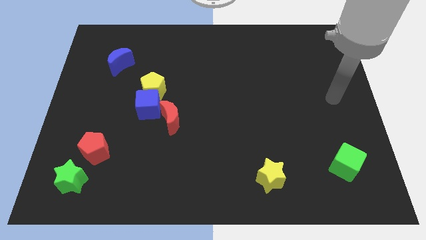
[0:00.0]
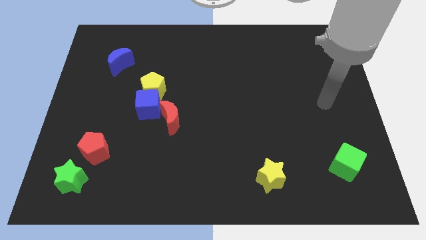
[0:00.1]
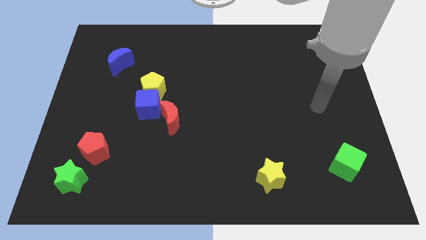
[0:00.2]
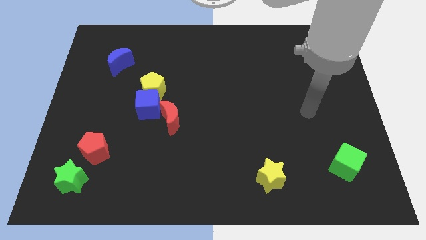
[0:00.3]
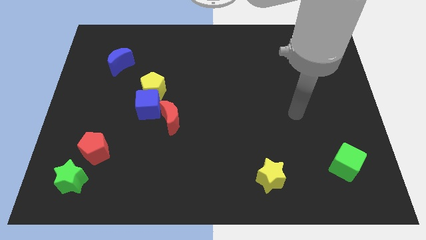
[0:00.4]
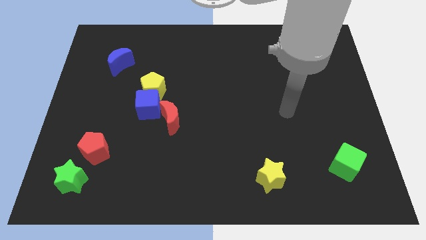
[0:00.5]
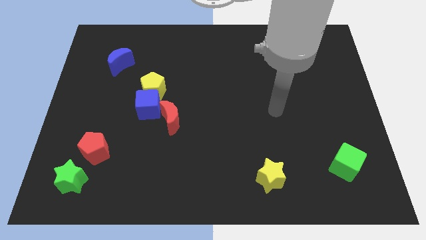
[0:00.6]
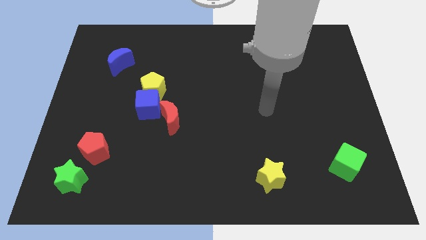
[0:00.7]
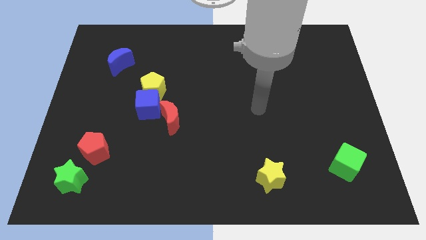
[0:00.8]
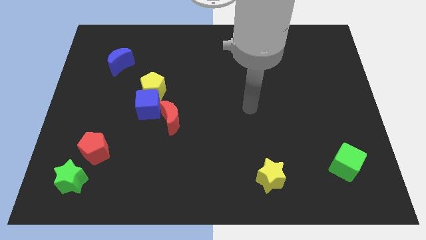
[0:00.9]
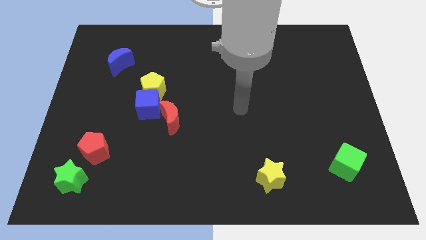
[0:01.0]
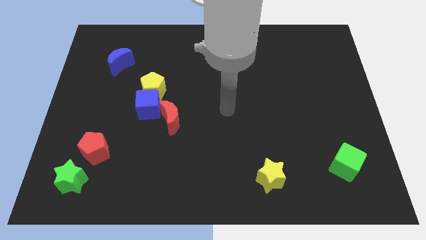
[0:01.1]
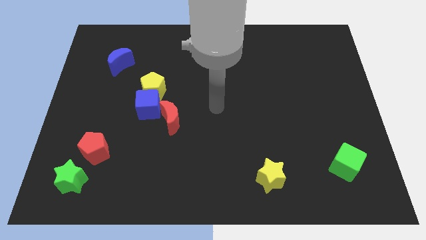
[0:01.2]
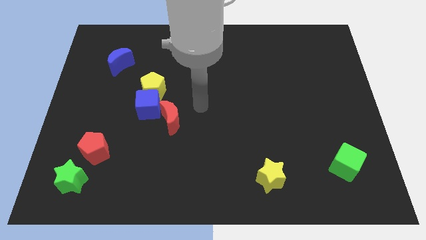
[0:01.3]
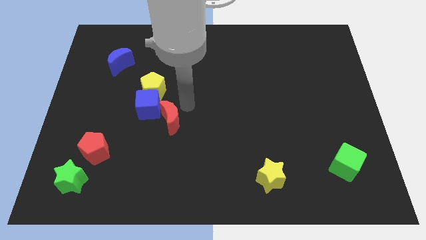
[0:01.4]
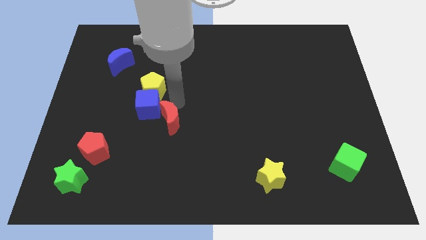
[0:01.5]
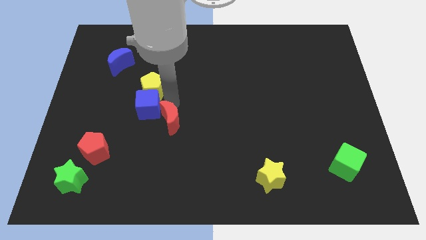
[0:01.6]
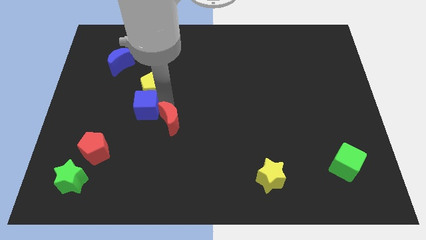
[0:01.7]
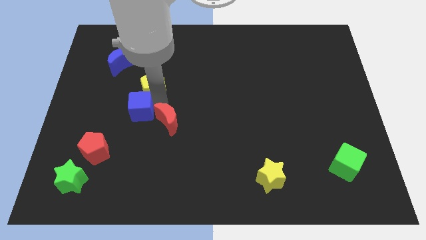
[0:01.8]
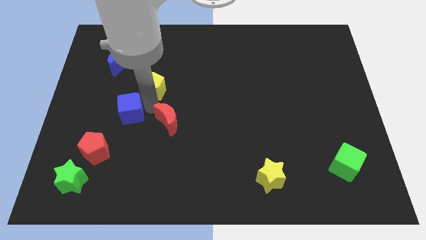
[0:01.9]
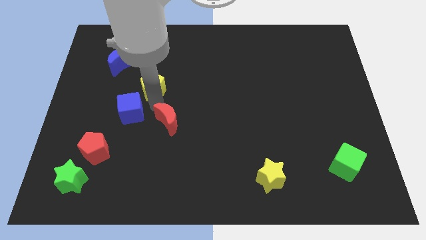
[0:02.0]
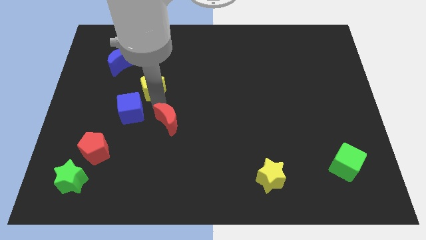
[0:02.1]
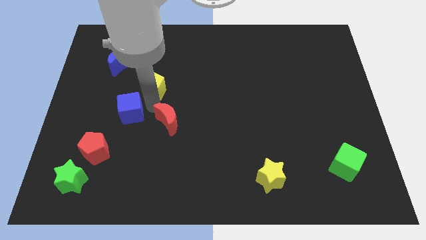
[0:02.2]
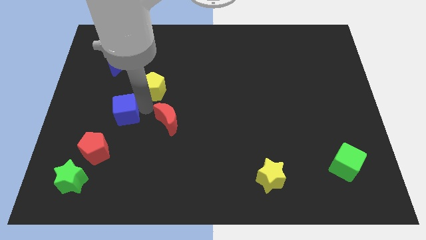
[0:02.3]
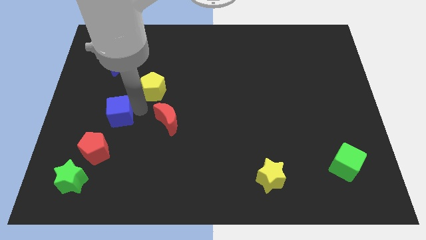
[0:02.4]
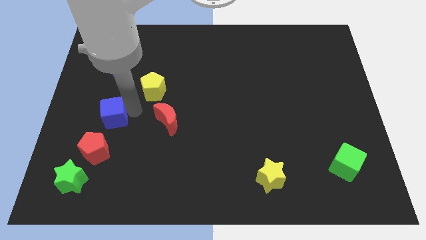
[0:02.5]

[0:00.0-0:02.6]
pull the blue cube apart from the yellow pentagon and red moon

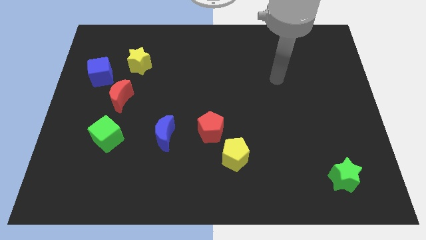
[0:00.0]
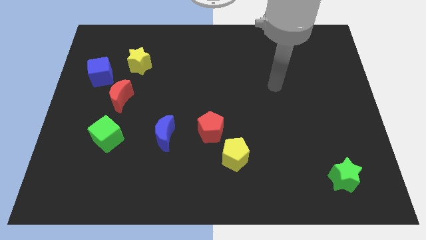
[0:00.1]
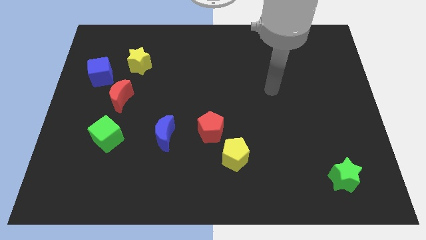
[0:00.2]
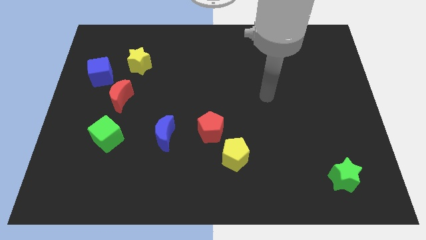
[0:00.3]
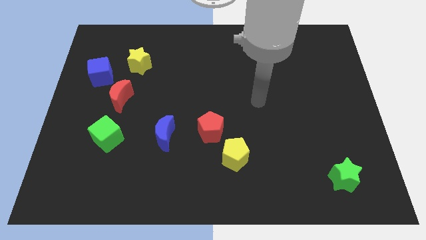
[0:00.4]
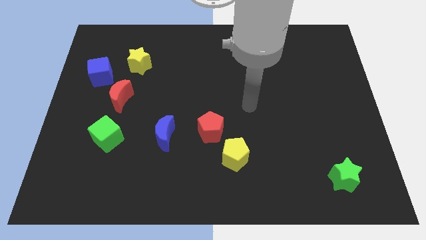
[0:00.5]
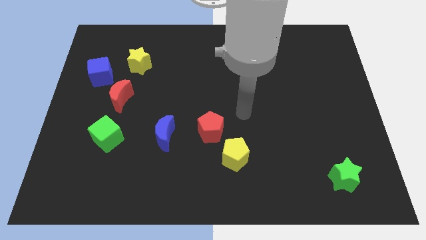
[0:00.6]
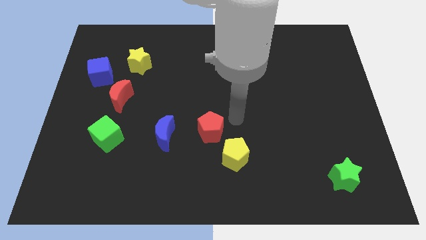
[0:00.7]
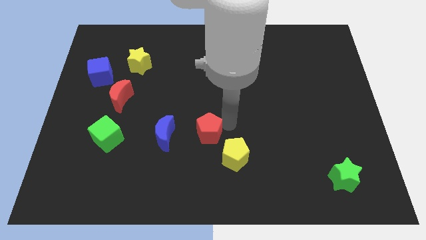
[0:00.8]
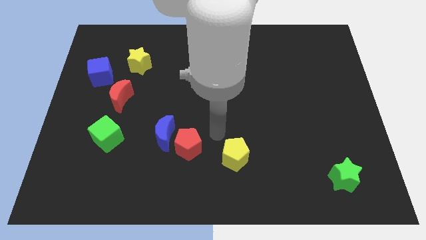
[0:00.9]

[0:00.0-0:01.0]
move the yellow pentagon away from the red pentagon

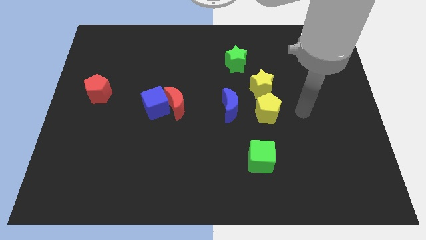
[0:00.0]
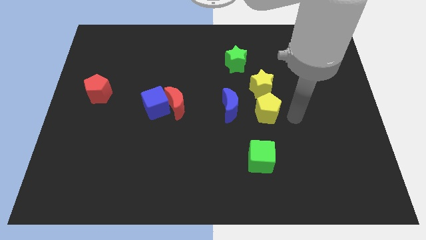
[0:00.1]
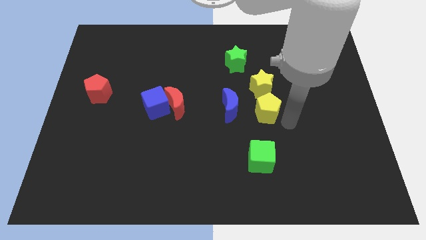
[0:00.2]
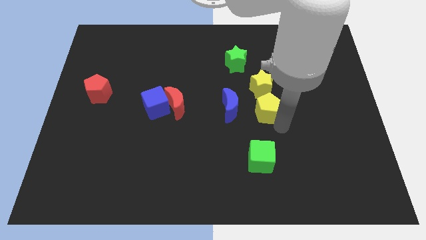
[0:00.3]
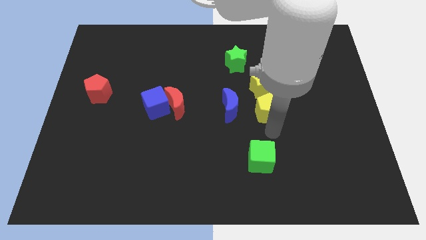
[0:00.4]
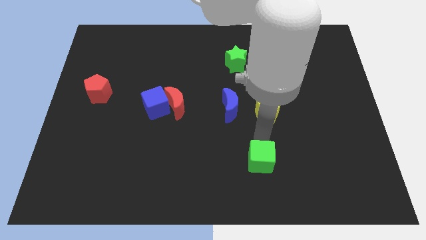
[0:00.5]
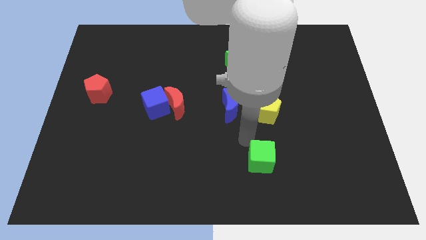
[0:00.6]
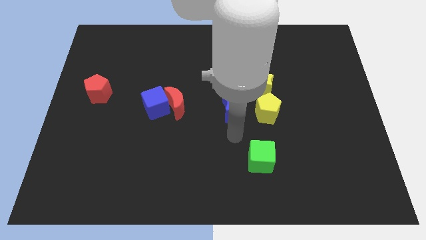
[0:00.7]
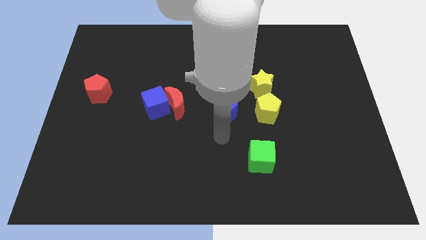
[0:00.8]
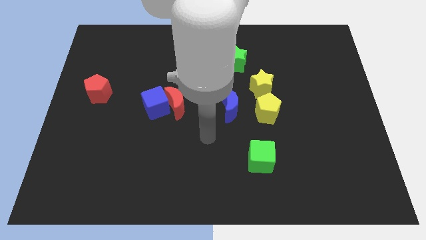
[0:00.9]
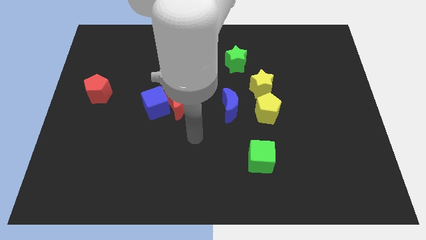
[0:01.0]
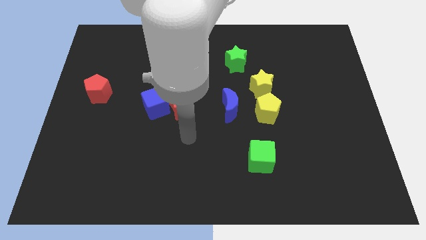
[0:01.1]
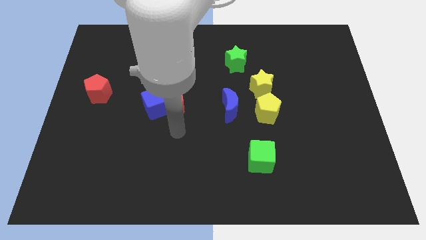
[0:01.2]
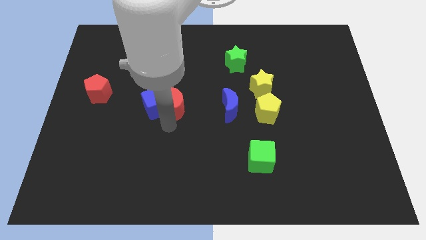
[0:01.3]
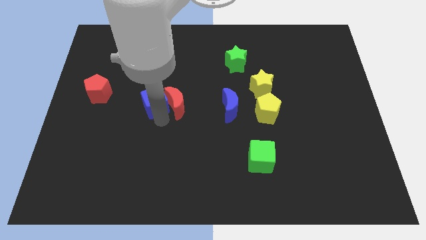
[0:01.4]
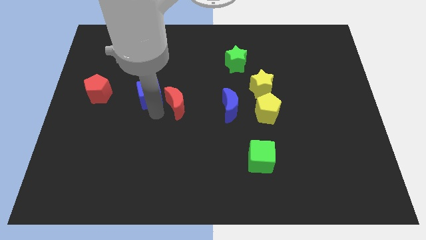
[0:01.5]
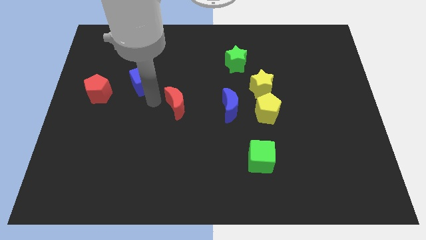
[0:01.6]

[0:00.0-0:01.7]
move the red moon away from the blue cube

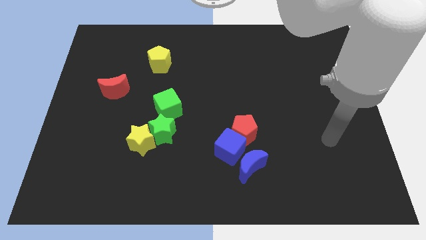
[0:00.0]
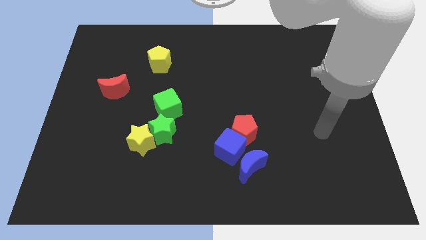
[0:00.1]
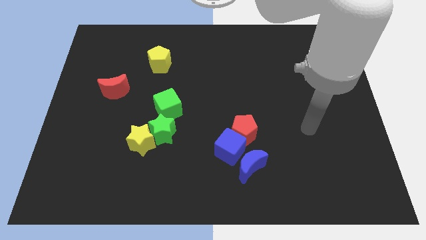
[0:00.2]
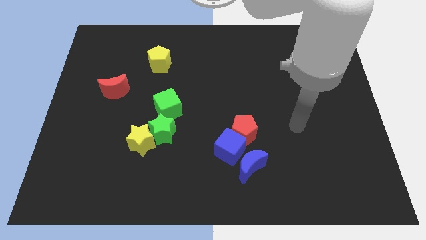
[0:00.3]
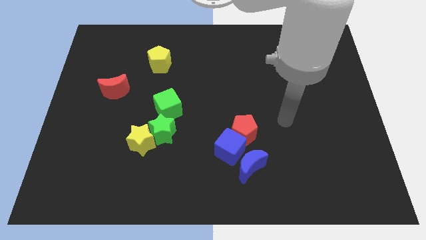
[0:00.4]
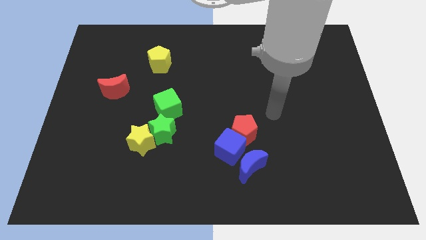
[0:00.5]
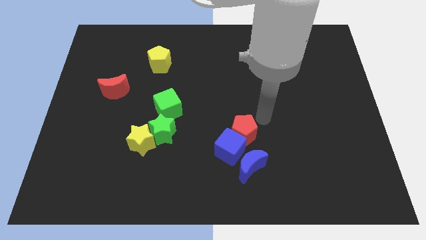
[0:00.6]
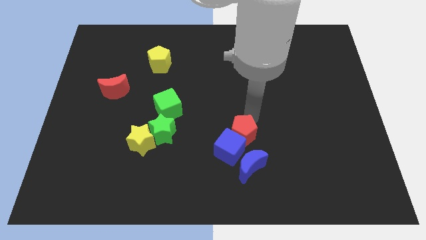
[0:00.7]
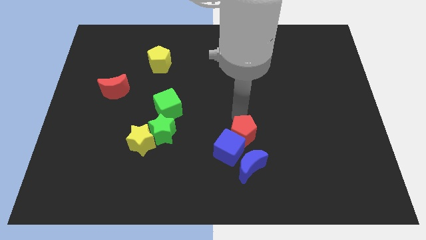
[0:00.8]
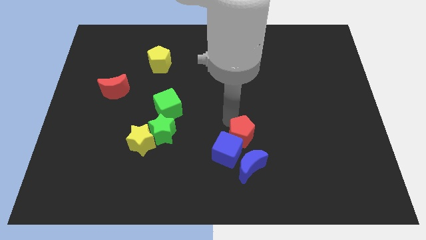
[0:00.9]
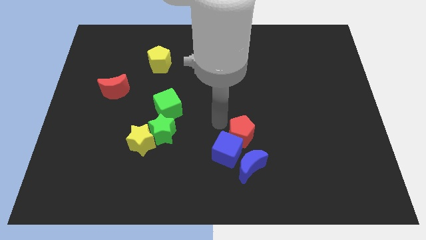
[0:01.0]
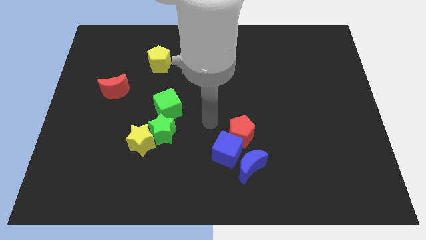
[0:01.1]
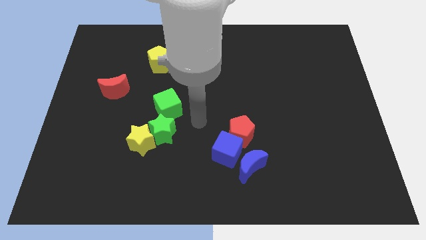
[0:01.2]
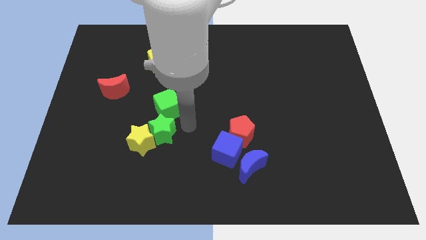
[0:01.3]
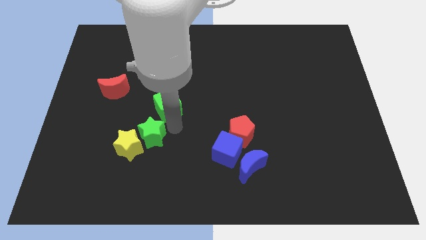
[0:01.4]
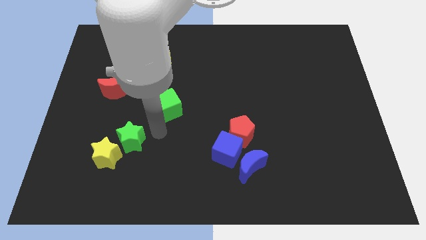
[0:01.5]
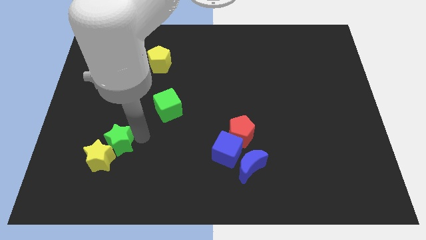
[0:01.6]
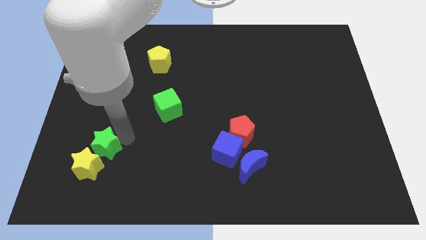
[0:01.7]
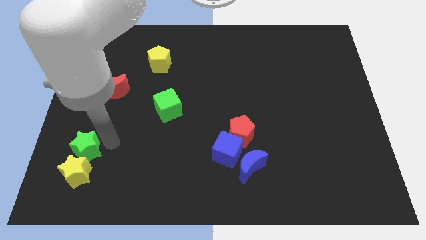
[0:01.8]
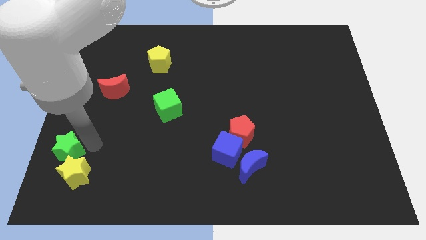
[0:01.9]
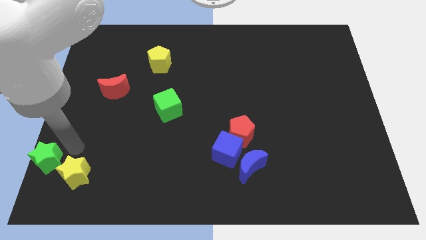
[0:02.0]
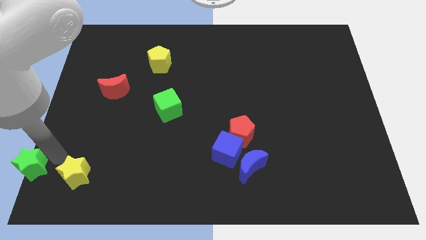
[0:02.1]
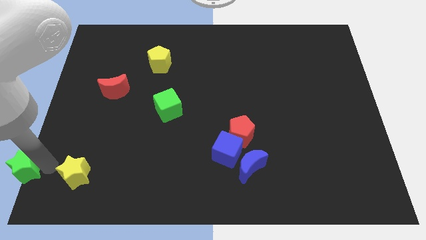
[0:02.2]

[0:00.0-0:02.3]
move the yellow star away from the green star

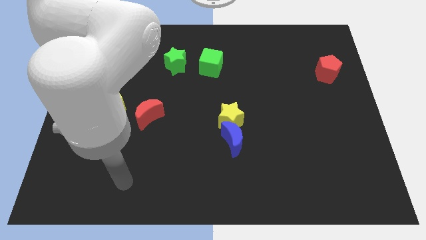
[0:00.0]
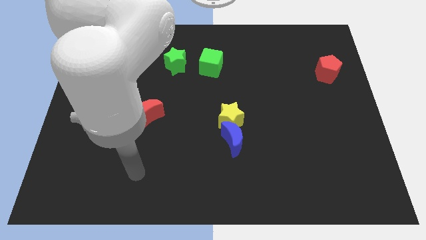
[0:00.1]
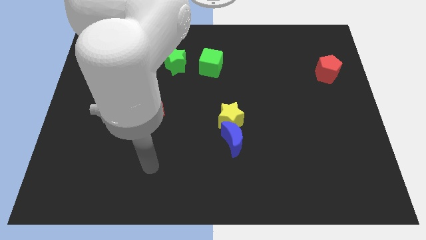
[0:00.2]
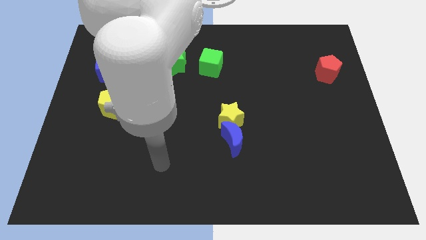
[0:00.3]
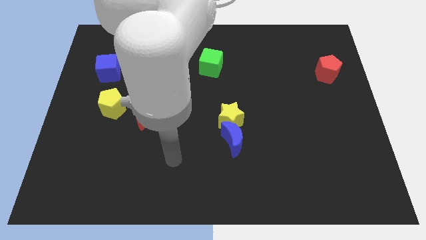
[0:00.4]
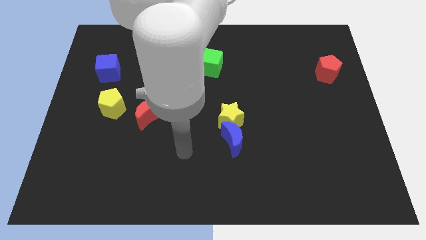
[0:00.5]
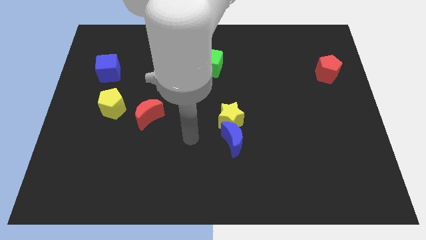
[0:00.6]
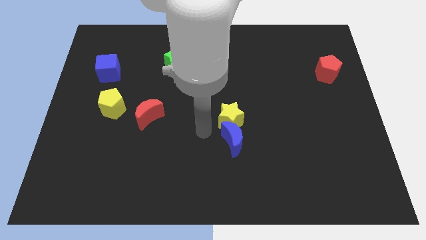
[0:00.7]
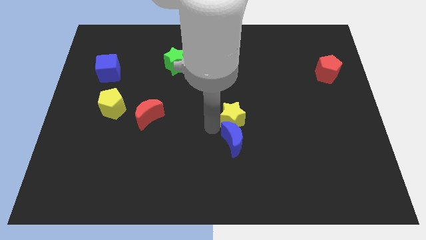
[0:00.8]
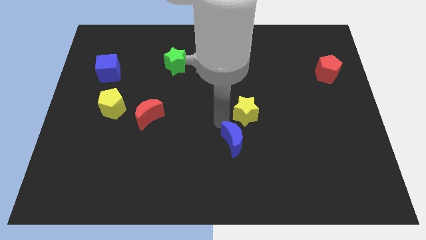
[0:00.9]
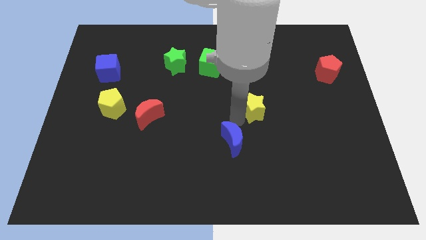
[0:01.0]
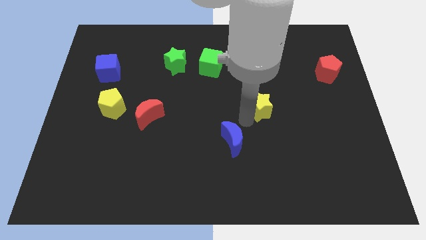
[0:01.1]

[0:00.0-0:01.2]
pull the blue moon apart from the yellow star

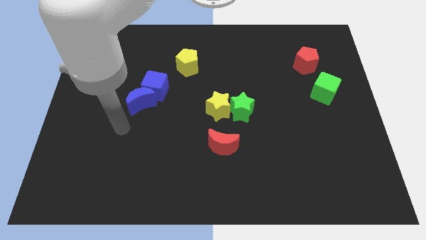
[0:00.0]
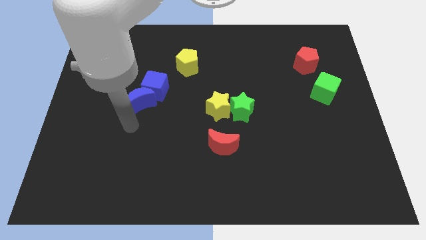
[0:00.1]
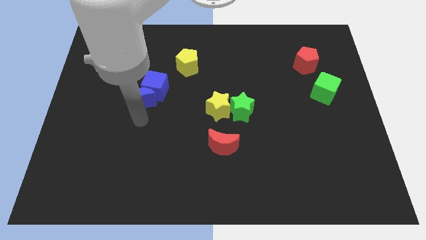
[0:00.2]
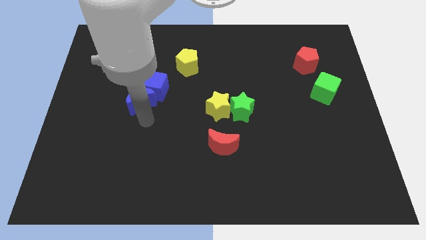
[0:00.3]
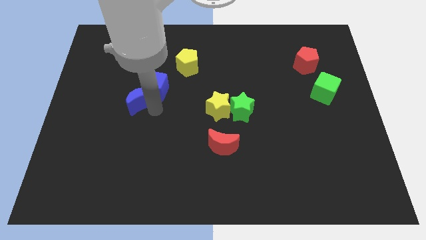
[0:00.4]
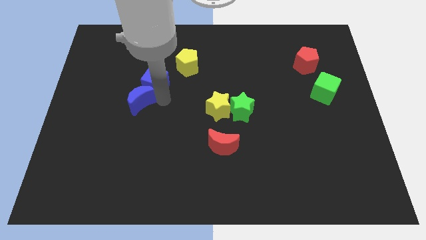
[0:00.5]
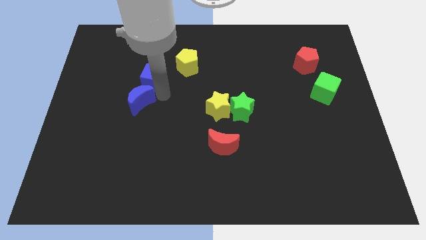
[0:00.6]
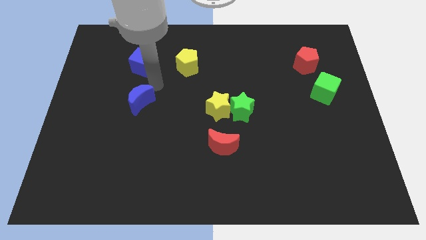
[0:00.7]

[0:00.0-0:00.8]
separate the blue moon from the blue cube
